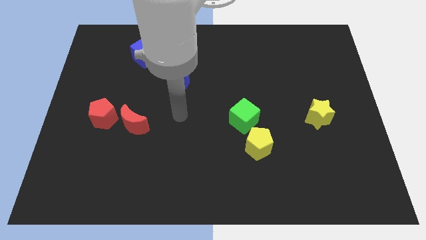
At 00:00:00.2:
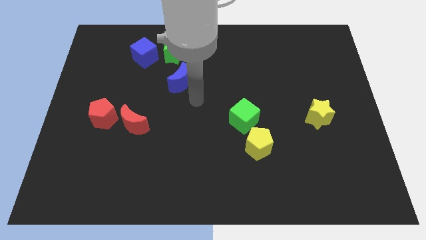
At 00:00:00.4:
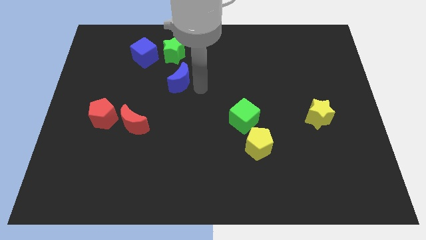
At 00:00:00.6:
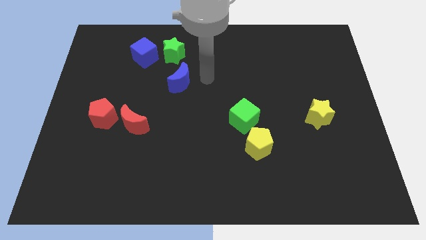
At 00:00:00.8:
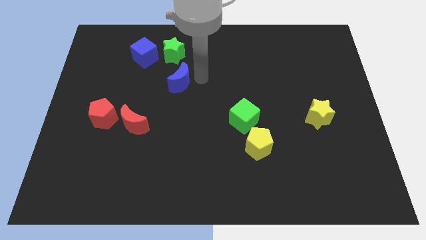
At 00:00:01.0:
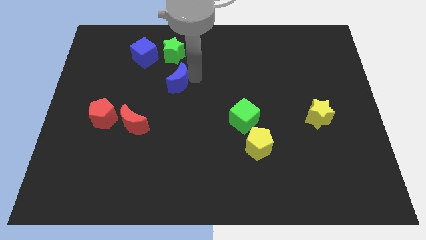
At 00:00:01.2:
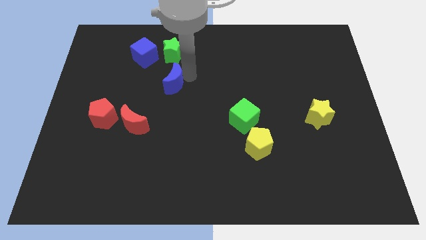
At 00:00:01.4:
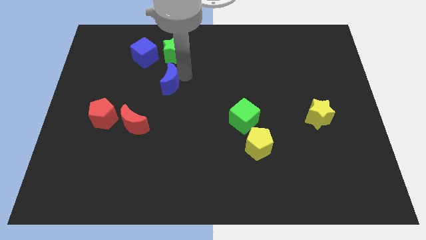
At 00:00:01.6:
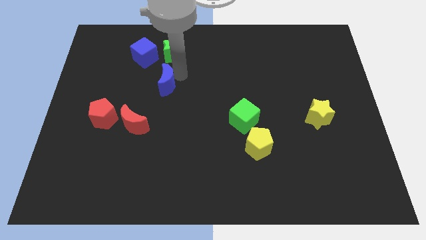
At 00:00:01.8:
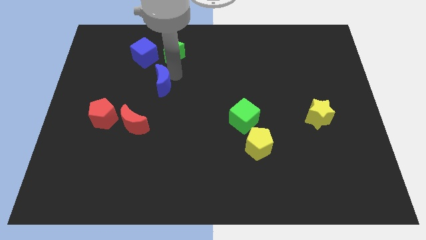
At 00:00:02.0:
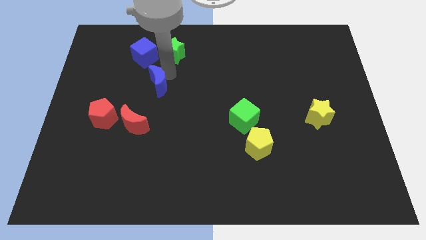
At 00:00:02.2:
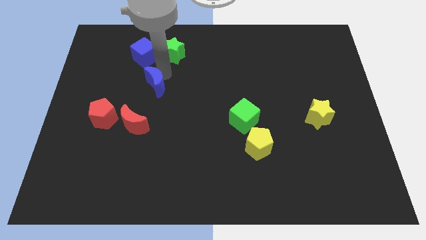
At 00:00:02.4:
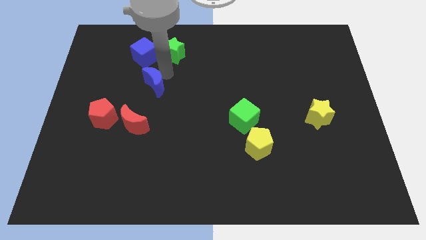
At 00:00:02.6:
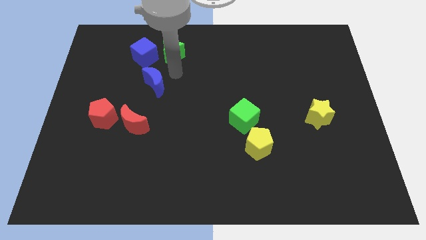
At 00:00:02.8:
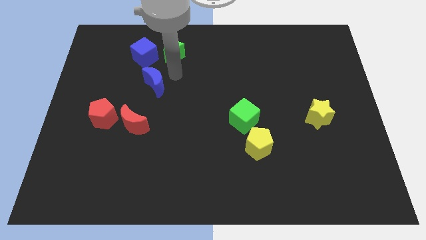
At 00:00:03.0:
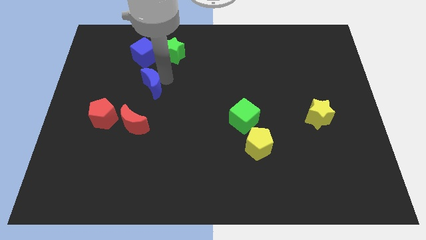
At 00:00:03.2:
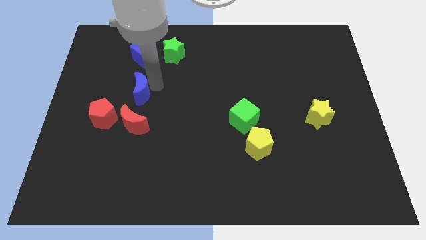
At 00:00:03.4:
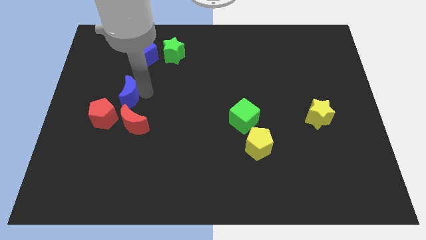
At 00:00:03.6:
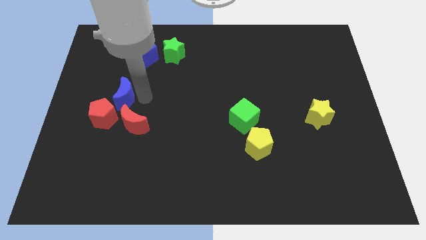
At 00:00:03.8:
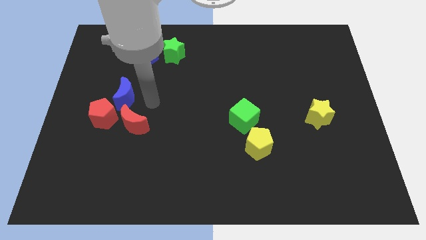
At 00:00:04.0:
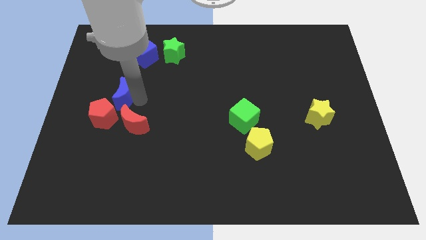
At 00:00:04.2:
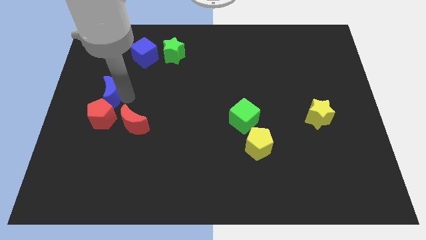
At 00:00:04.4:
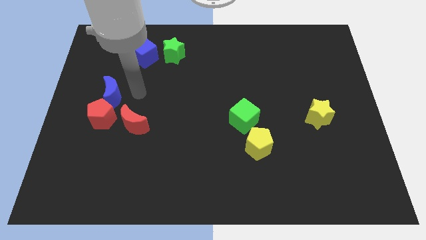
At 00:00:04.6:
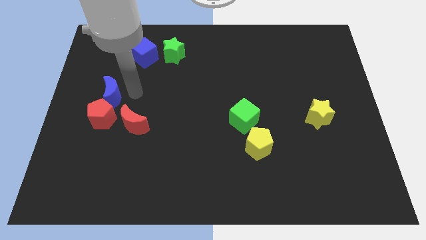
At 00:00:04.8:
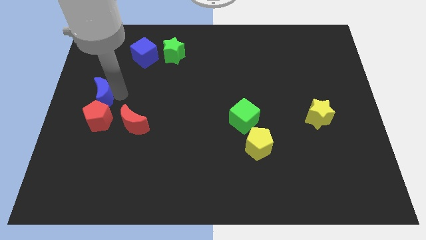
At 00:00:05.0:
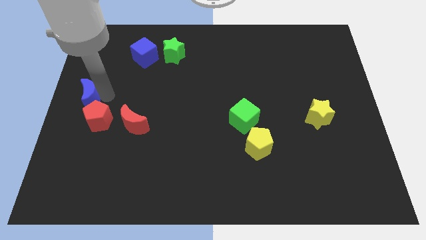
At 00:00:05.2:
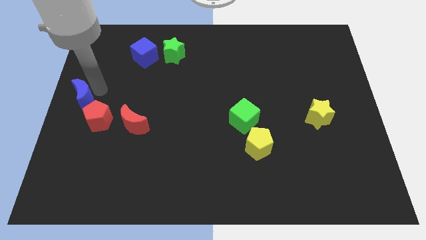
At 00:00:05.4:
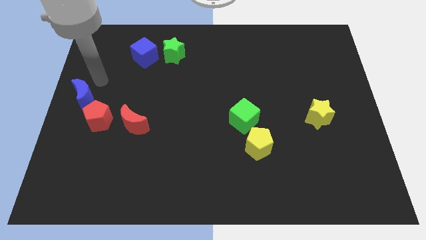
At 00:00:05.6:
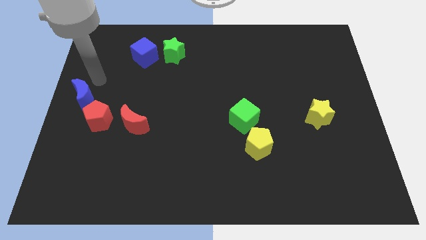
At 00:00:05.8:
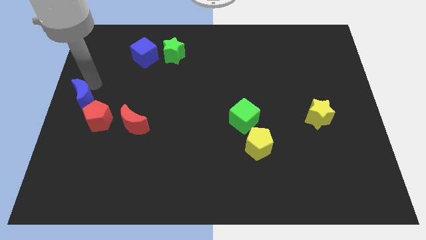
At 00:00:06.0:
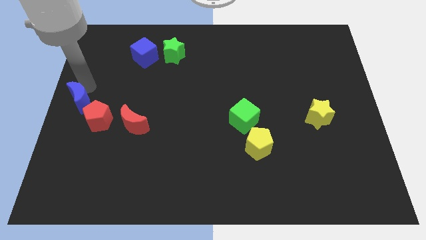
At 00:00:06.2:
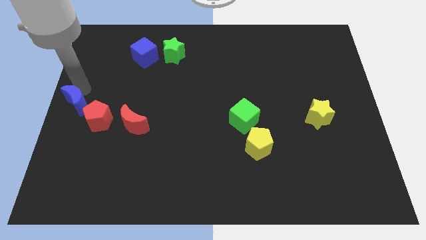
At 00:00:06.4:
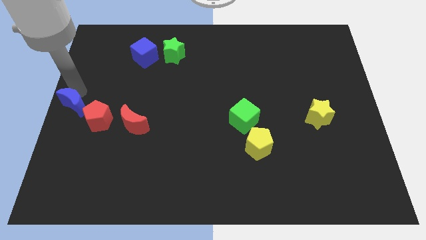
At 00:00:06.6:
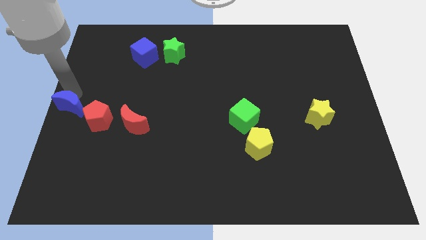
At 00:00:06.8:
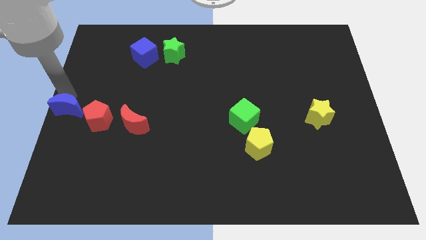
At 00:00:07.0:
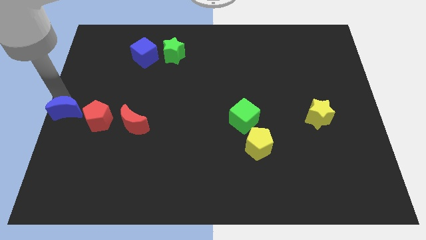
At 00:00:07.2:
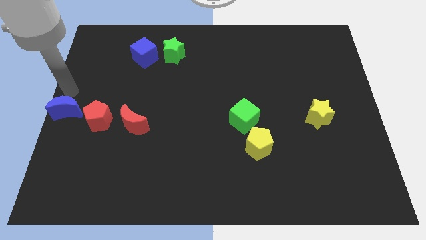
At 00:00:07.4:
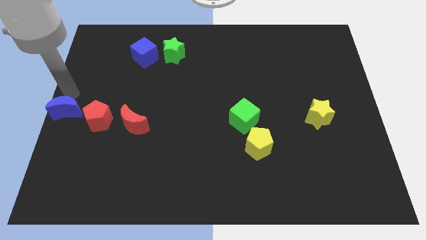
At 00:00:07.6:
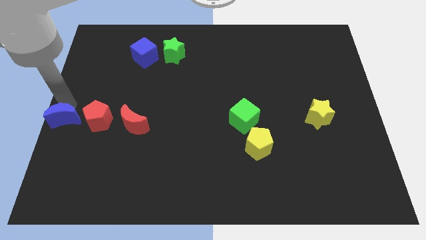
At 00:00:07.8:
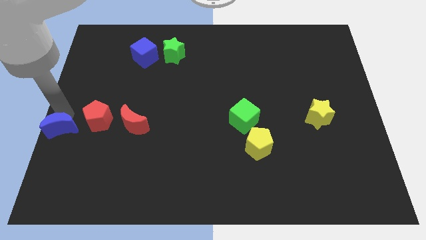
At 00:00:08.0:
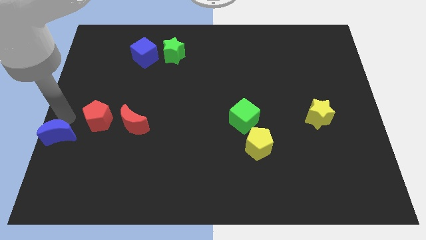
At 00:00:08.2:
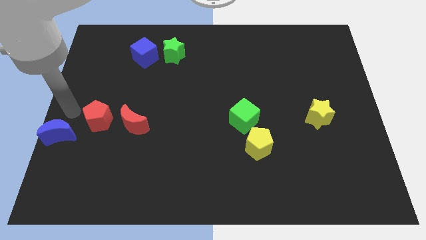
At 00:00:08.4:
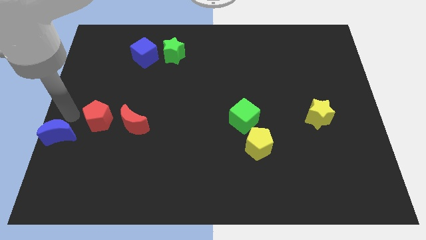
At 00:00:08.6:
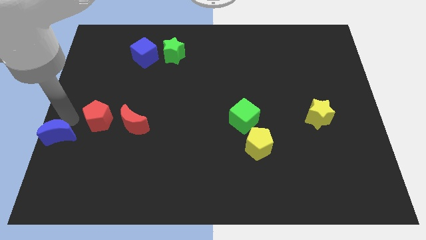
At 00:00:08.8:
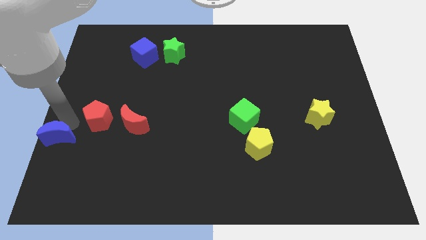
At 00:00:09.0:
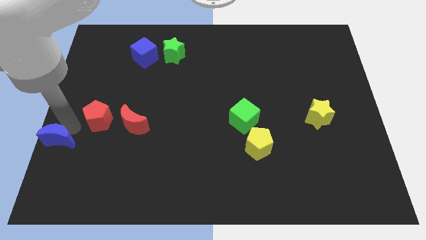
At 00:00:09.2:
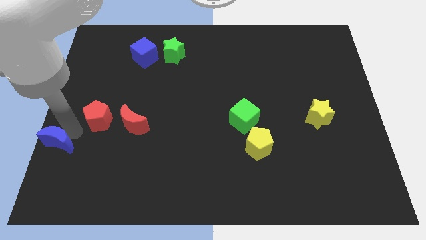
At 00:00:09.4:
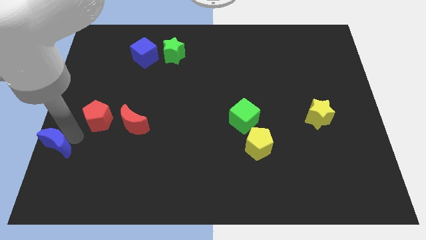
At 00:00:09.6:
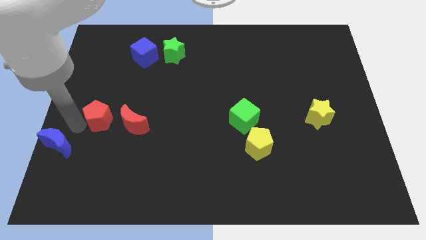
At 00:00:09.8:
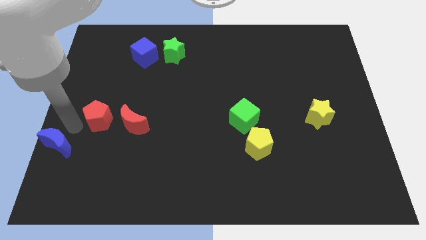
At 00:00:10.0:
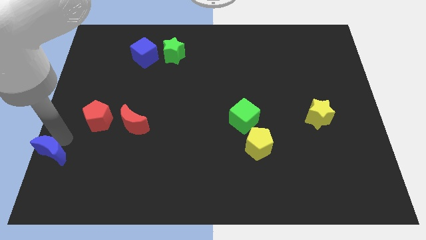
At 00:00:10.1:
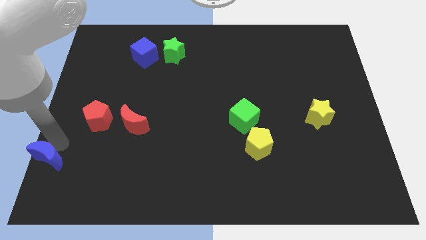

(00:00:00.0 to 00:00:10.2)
put the blue moon to the bottom left corner

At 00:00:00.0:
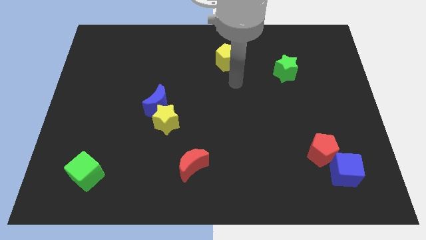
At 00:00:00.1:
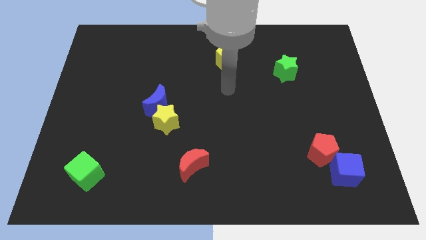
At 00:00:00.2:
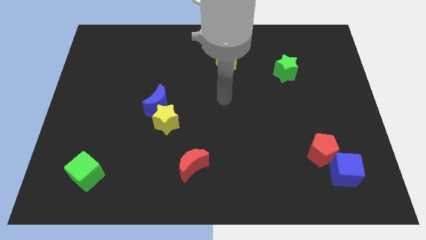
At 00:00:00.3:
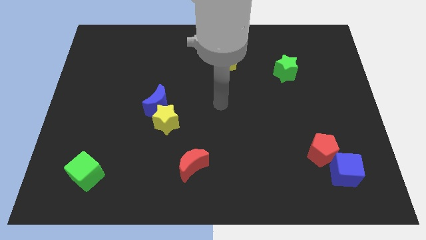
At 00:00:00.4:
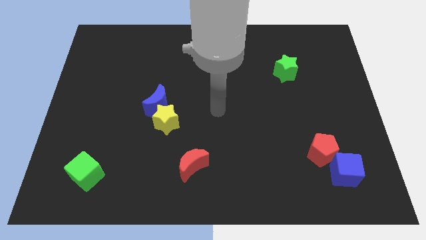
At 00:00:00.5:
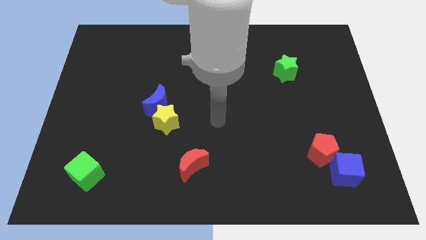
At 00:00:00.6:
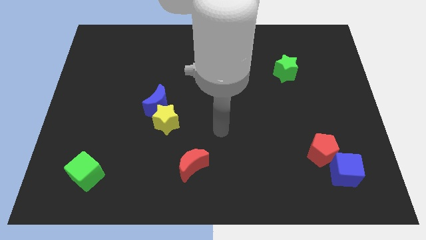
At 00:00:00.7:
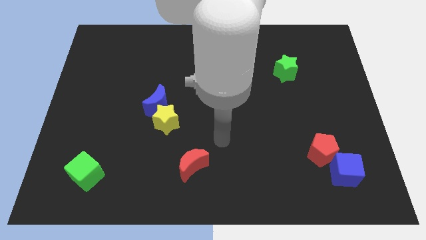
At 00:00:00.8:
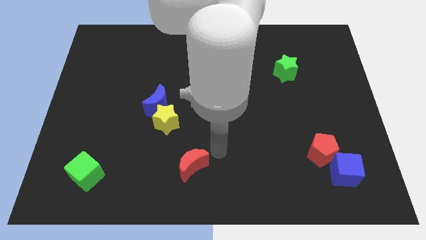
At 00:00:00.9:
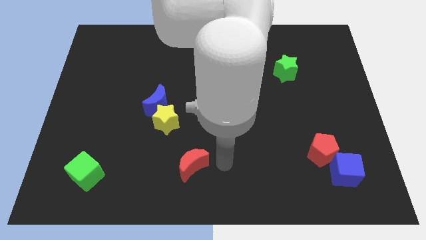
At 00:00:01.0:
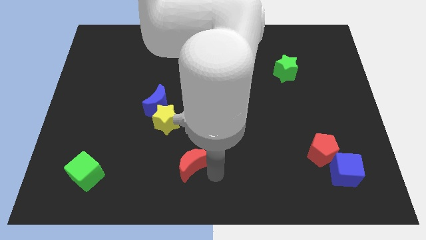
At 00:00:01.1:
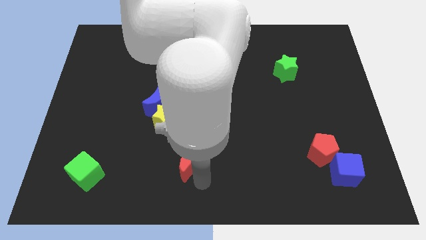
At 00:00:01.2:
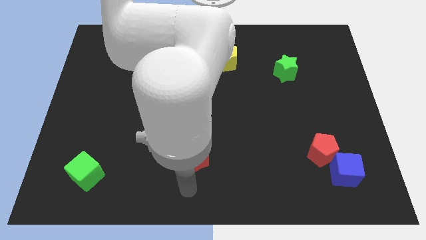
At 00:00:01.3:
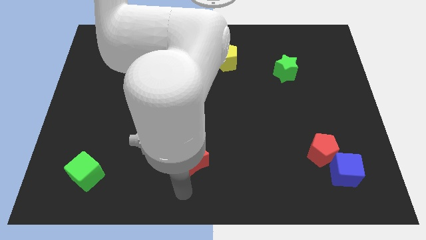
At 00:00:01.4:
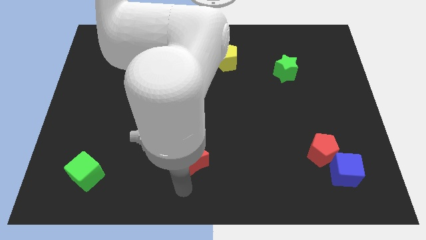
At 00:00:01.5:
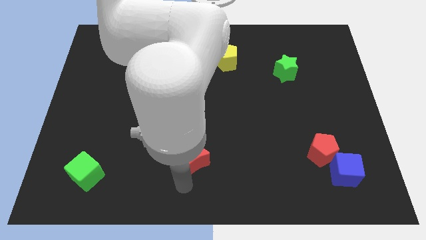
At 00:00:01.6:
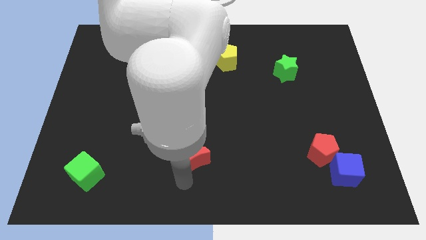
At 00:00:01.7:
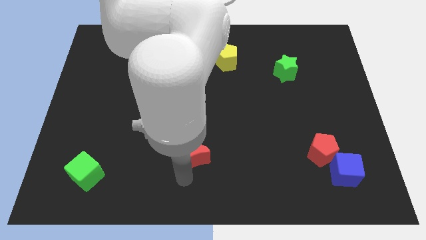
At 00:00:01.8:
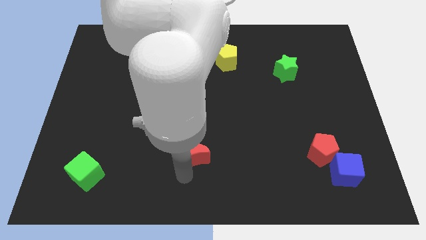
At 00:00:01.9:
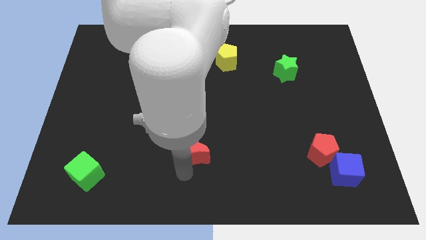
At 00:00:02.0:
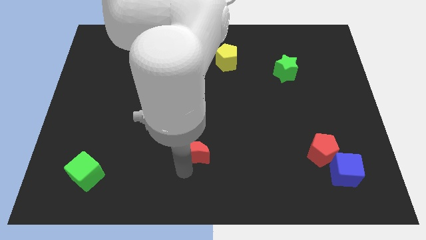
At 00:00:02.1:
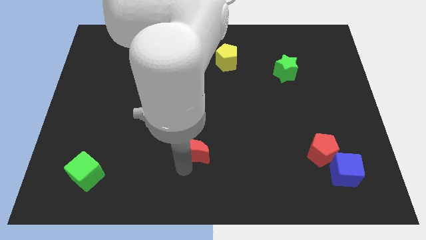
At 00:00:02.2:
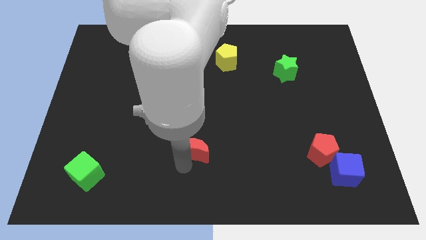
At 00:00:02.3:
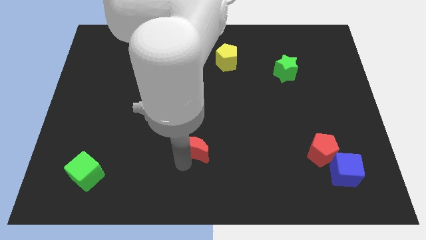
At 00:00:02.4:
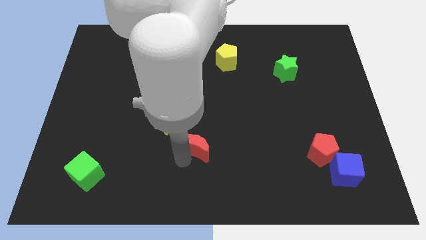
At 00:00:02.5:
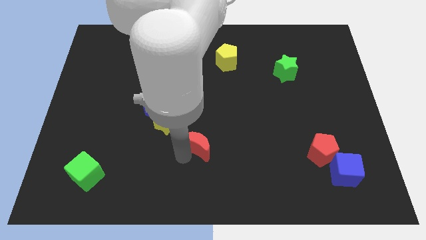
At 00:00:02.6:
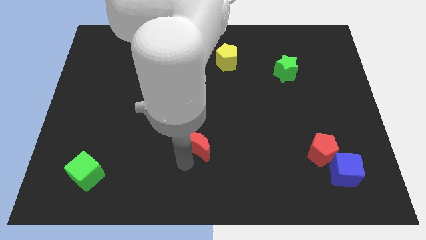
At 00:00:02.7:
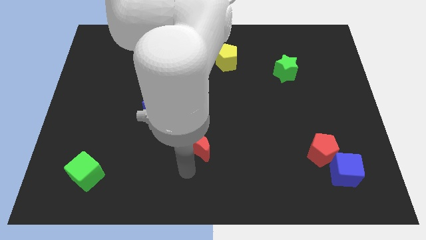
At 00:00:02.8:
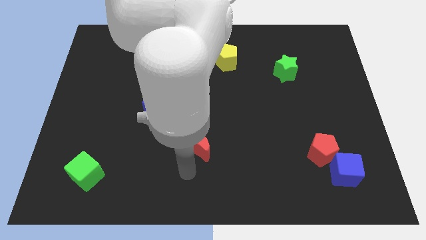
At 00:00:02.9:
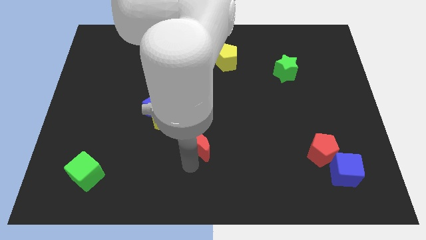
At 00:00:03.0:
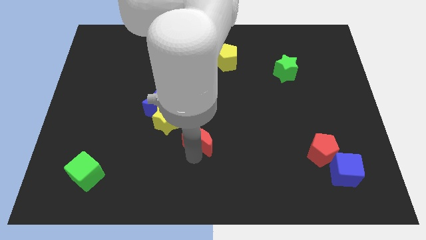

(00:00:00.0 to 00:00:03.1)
push the red moon to the center
